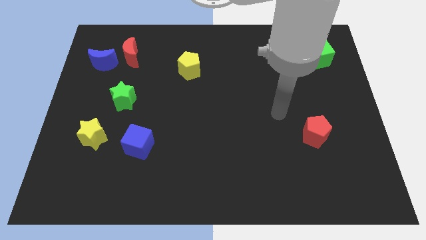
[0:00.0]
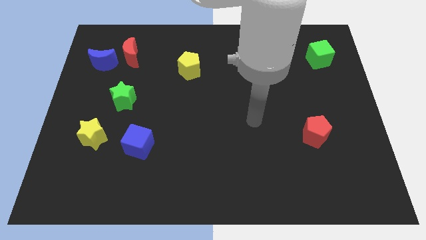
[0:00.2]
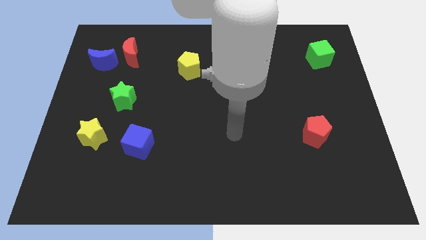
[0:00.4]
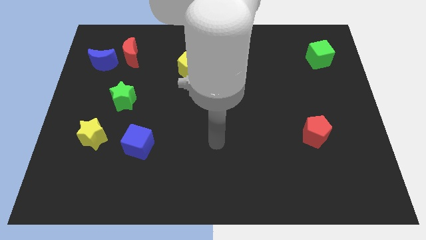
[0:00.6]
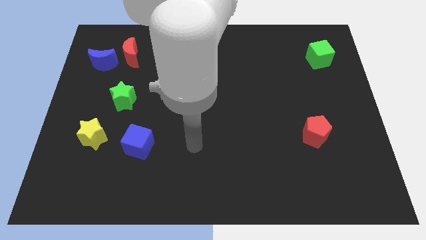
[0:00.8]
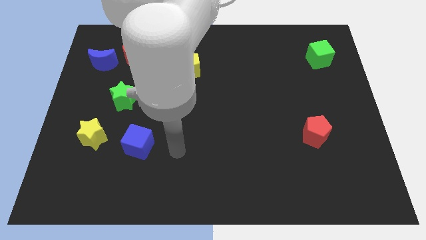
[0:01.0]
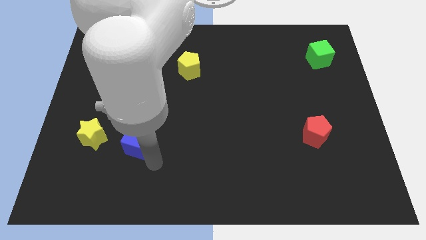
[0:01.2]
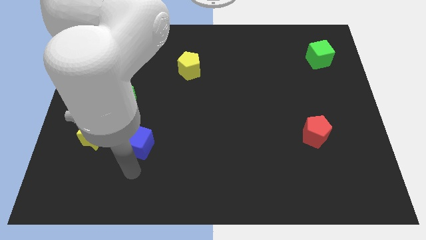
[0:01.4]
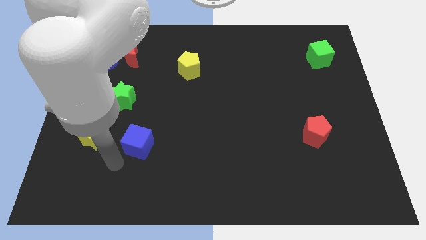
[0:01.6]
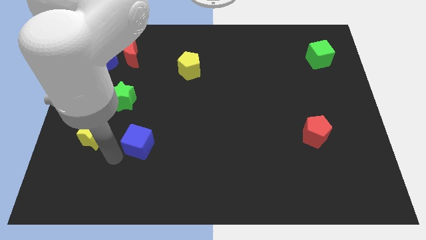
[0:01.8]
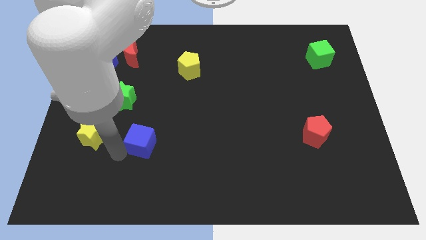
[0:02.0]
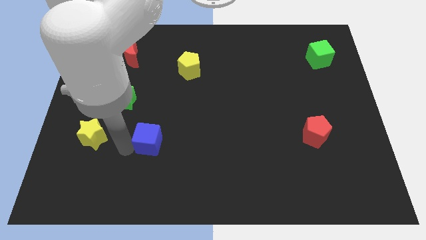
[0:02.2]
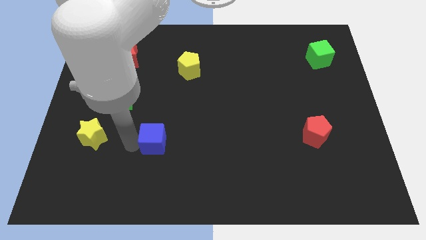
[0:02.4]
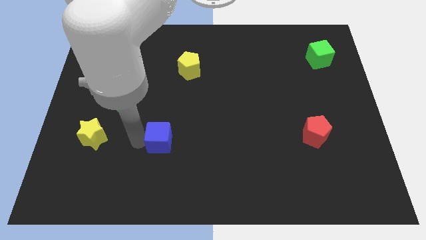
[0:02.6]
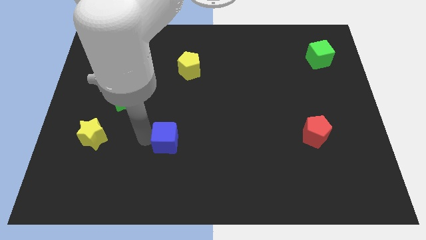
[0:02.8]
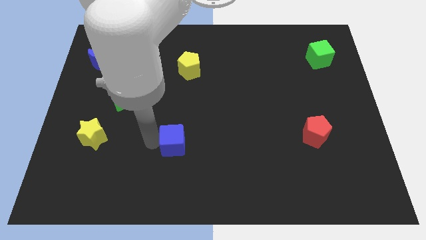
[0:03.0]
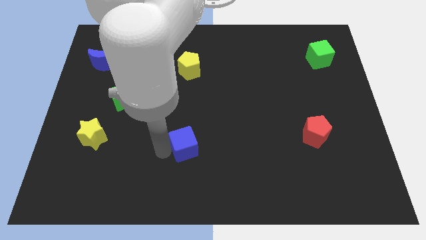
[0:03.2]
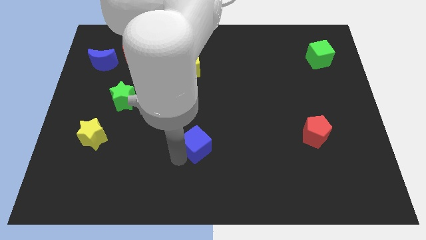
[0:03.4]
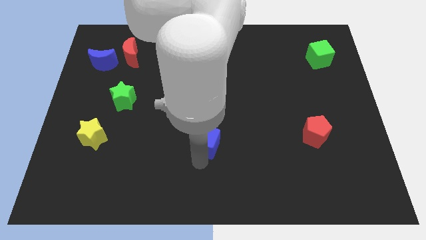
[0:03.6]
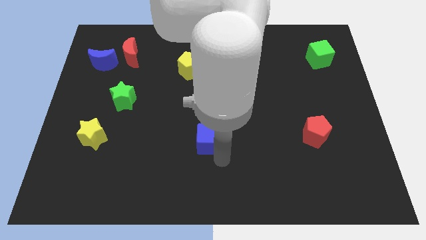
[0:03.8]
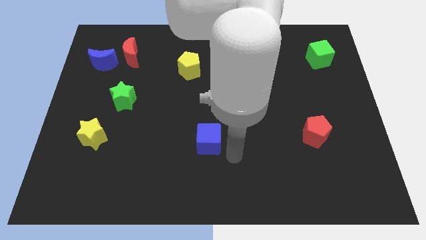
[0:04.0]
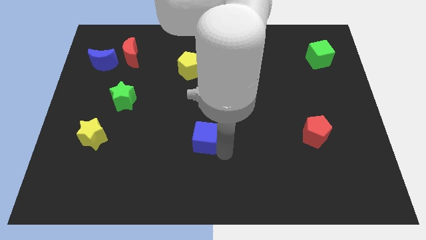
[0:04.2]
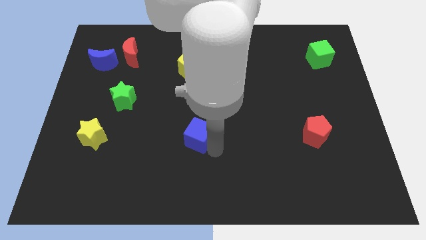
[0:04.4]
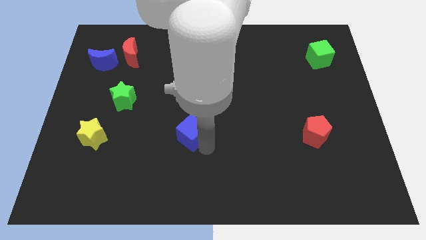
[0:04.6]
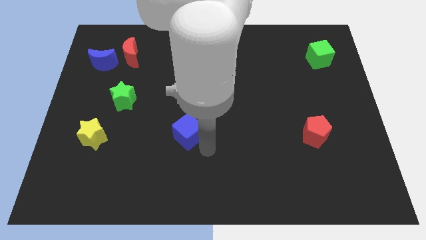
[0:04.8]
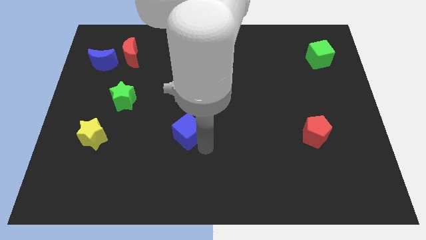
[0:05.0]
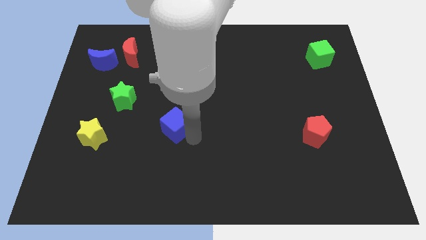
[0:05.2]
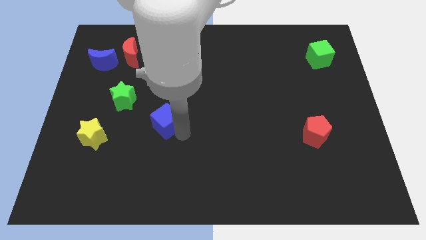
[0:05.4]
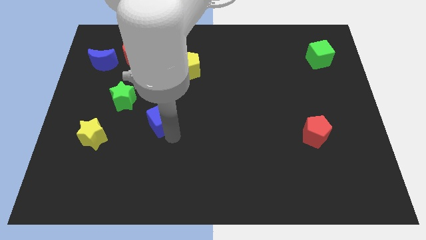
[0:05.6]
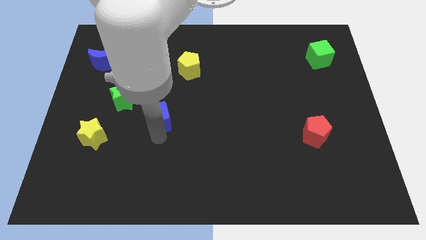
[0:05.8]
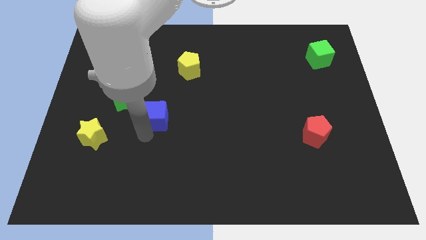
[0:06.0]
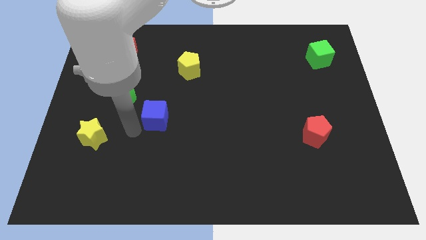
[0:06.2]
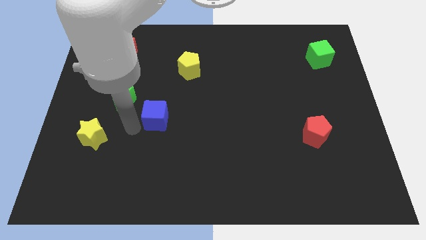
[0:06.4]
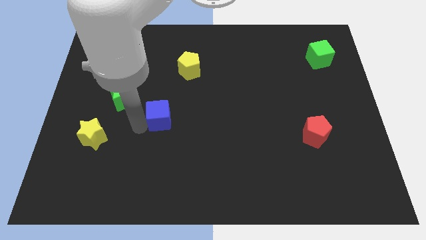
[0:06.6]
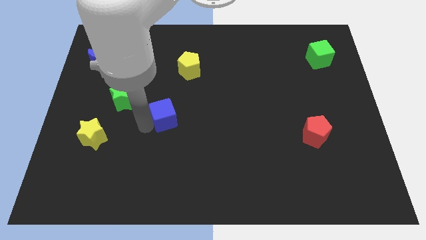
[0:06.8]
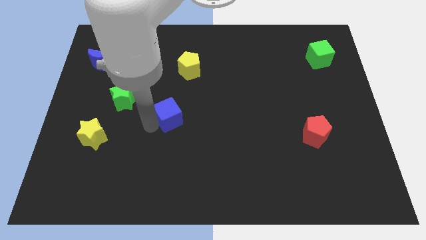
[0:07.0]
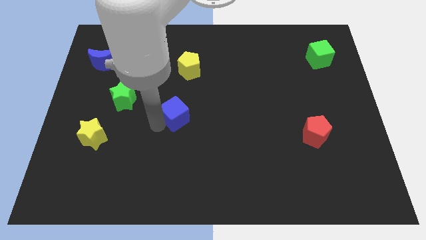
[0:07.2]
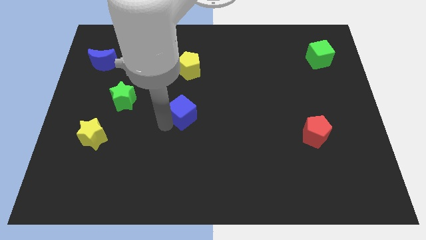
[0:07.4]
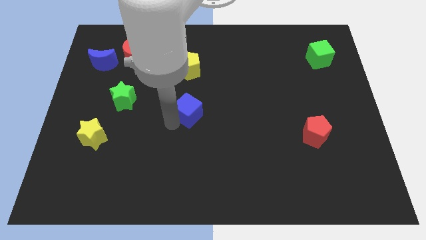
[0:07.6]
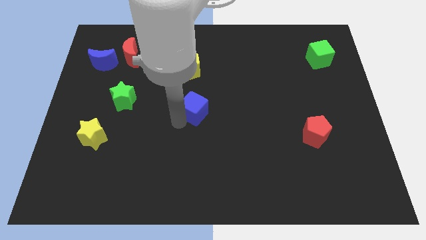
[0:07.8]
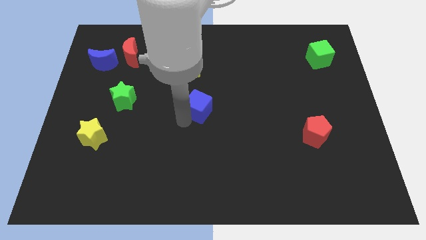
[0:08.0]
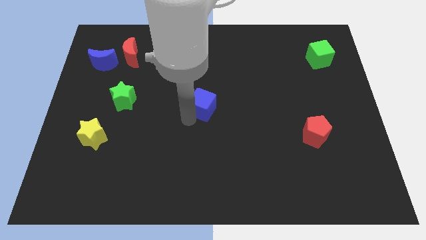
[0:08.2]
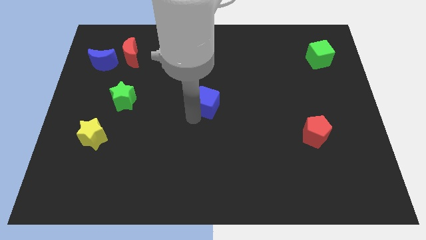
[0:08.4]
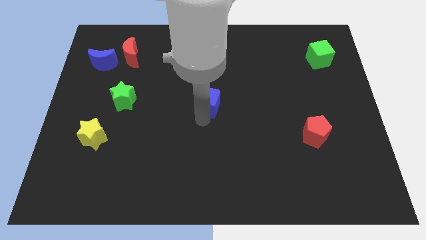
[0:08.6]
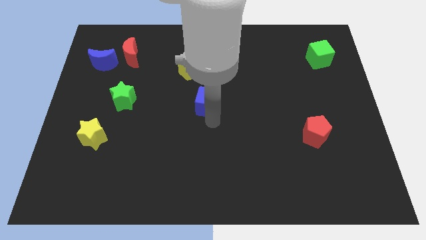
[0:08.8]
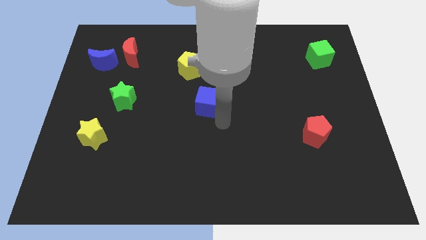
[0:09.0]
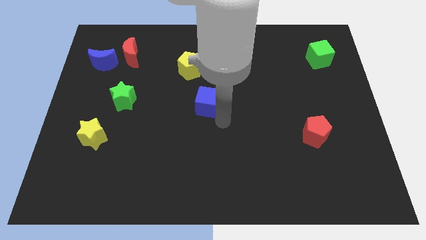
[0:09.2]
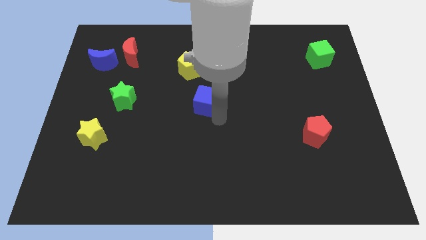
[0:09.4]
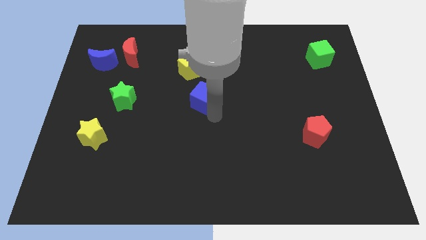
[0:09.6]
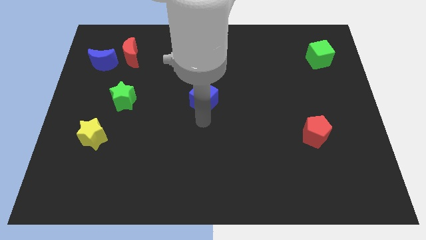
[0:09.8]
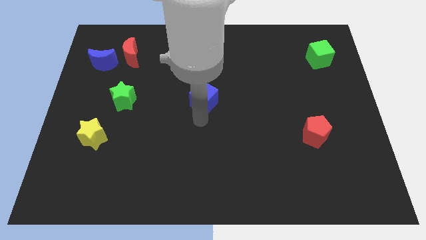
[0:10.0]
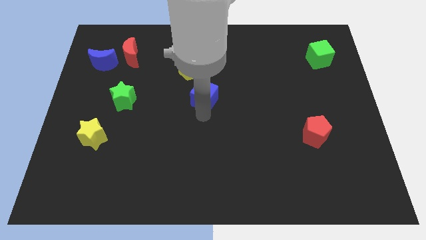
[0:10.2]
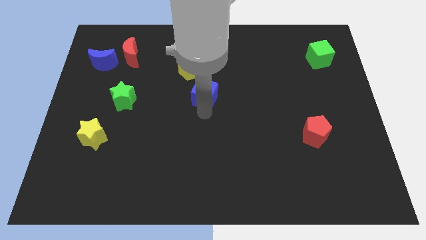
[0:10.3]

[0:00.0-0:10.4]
move the blue cube diagonally upwards and to the right

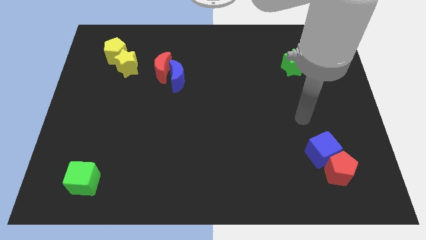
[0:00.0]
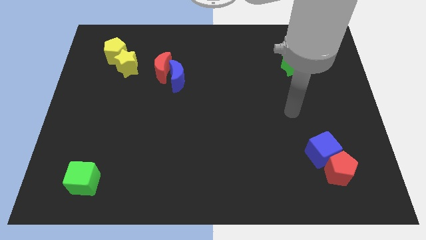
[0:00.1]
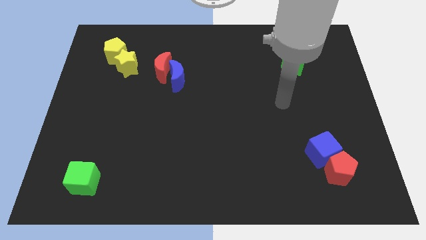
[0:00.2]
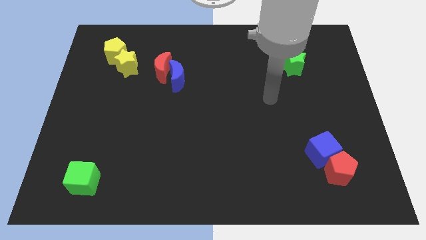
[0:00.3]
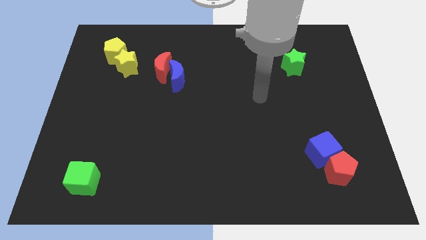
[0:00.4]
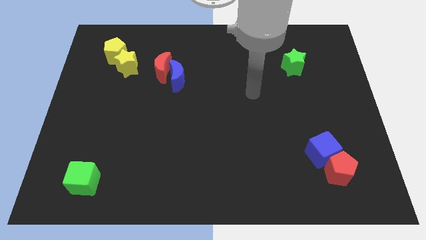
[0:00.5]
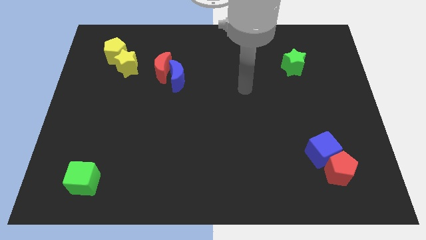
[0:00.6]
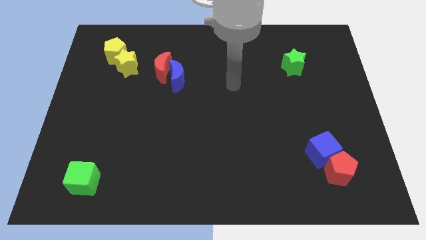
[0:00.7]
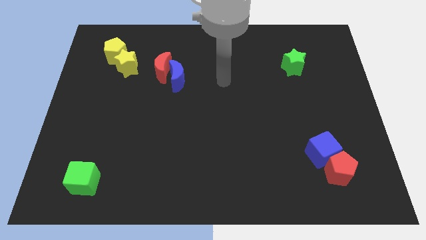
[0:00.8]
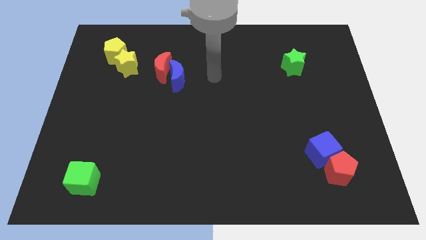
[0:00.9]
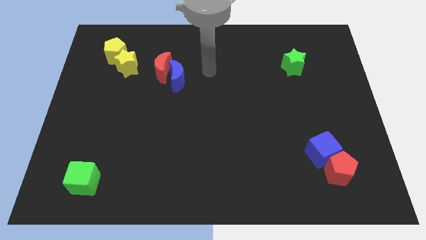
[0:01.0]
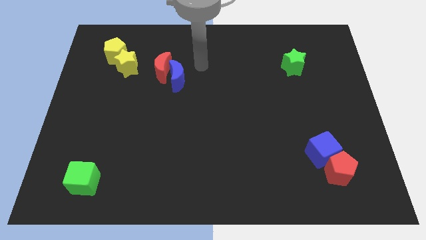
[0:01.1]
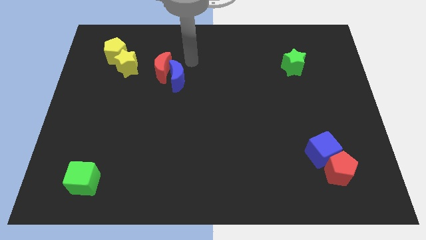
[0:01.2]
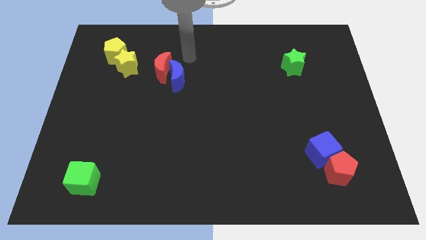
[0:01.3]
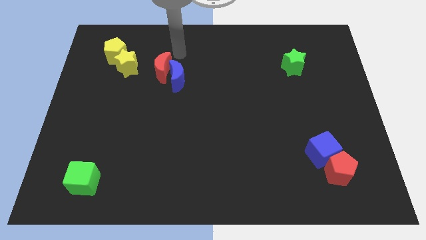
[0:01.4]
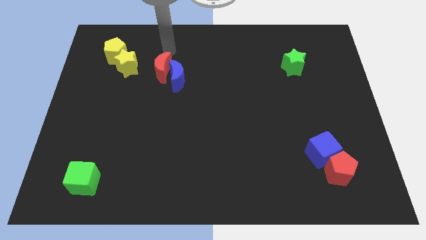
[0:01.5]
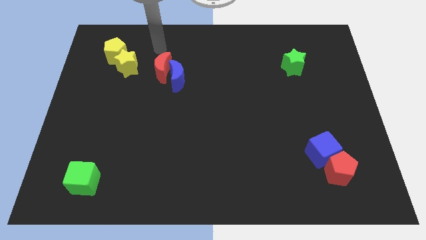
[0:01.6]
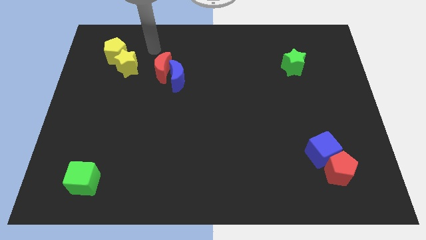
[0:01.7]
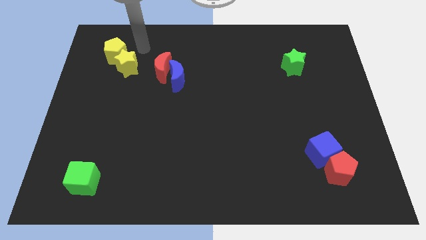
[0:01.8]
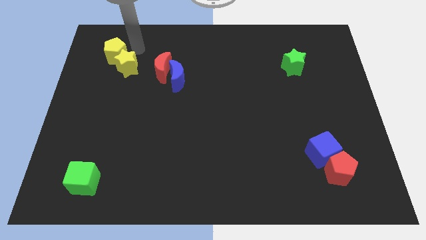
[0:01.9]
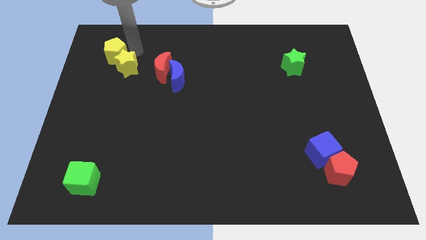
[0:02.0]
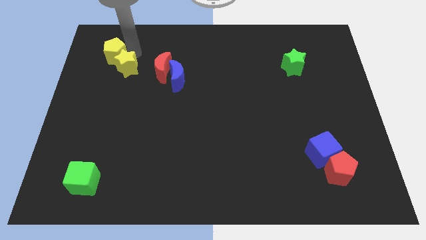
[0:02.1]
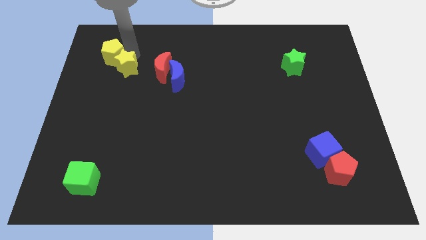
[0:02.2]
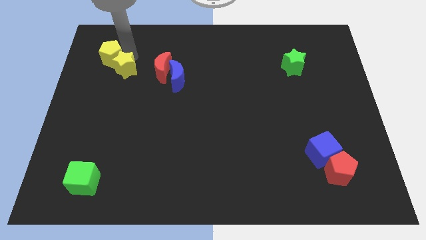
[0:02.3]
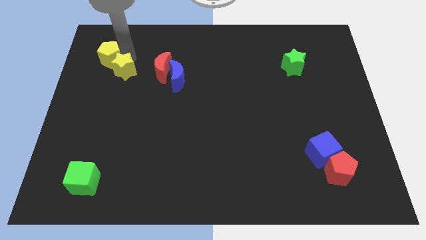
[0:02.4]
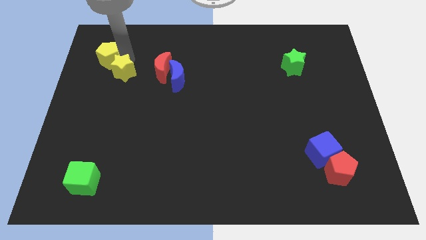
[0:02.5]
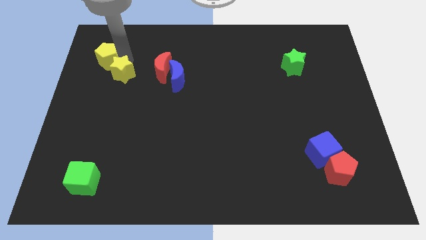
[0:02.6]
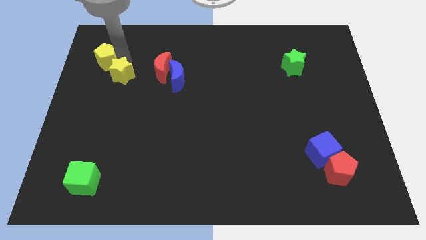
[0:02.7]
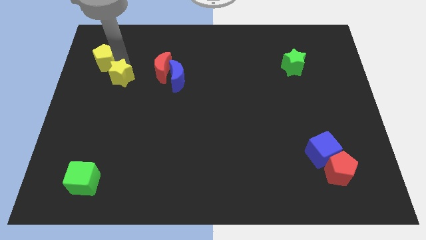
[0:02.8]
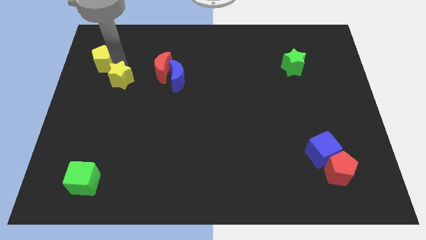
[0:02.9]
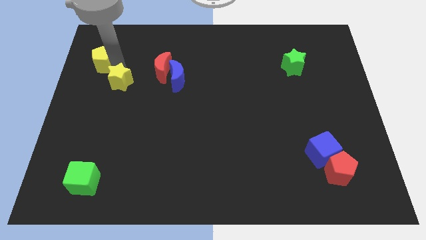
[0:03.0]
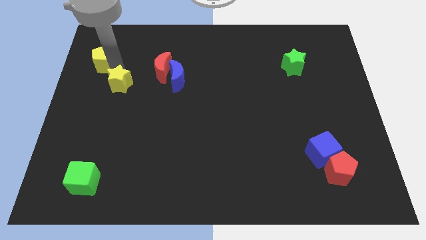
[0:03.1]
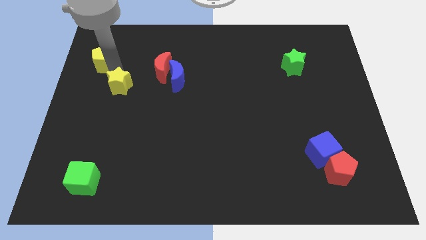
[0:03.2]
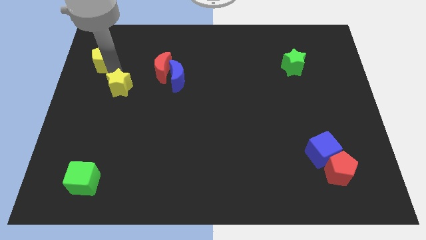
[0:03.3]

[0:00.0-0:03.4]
push the yellow star downwards a little
